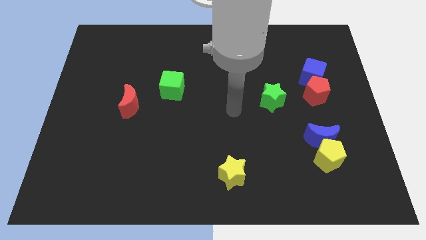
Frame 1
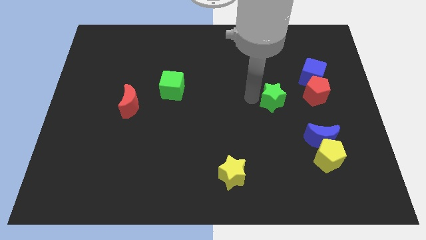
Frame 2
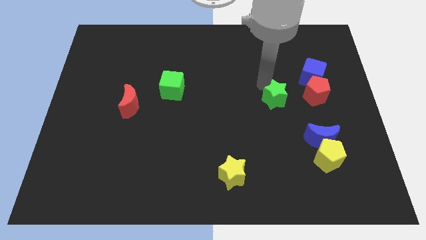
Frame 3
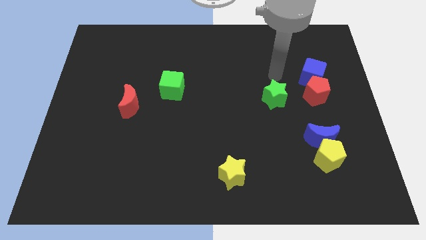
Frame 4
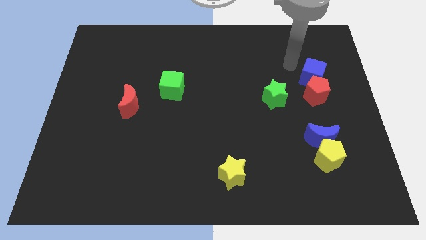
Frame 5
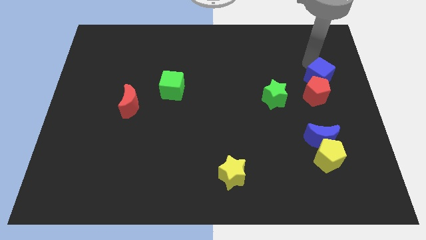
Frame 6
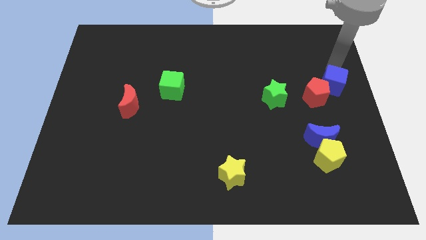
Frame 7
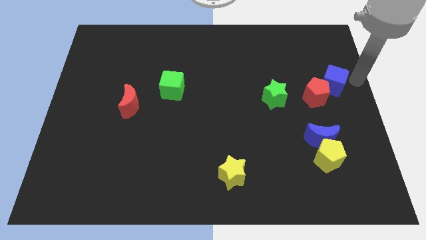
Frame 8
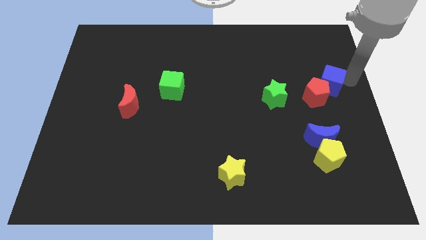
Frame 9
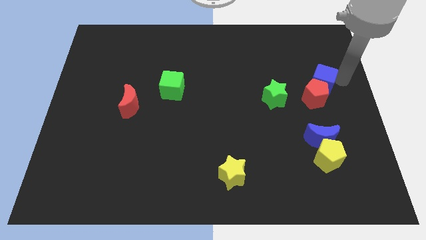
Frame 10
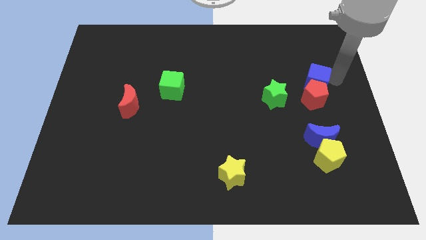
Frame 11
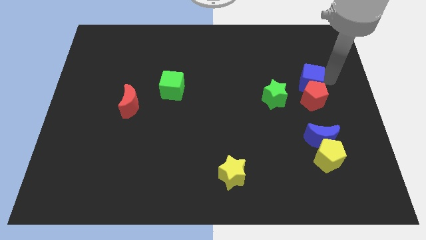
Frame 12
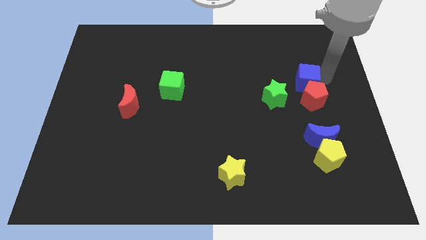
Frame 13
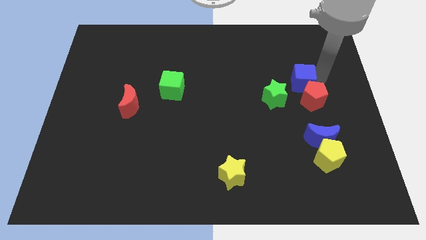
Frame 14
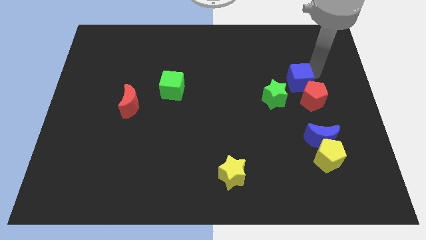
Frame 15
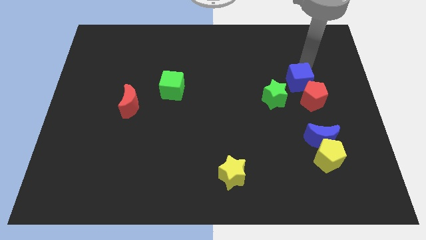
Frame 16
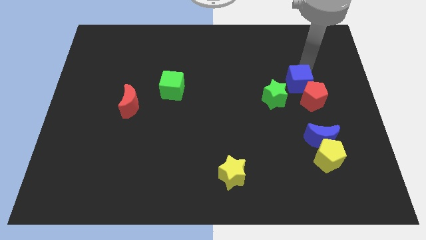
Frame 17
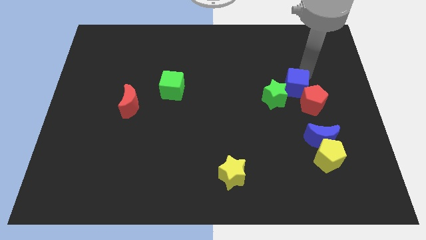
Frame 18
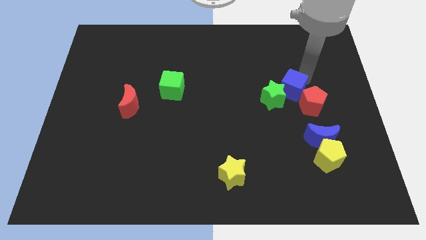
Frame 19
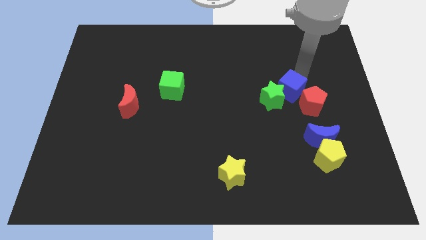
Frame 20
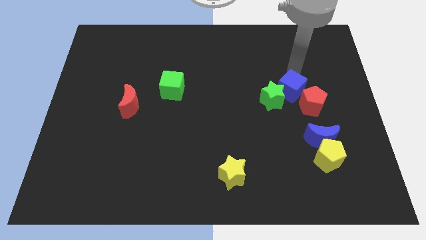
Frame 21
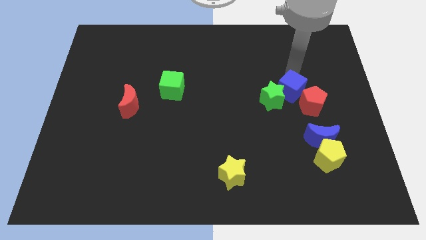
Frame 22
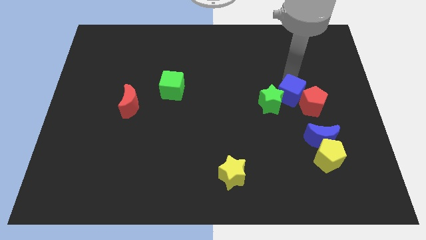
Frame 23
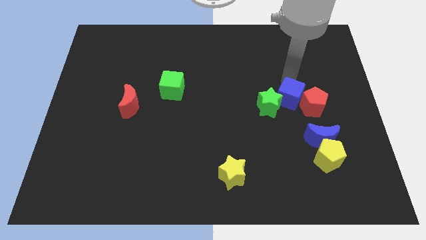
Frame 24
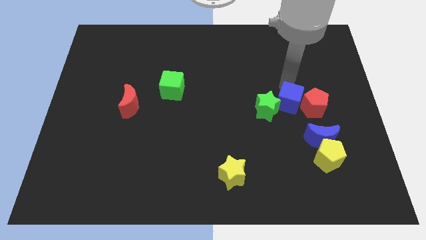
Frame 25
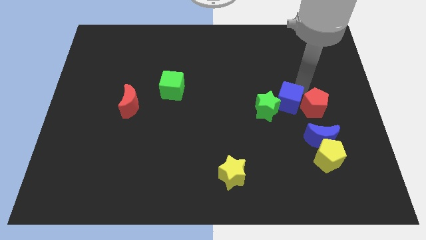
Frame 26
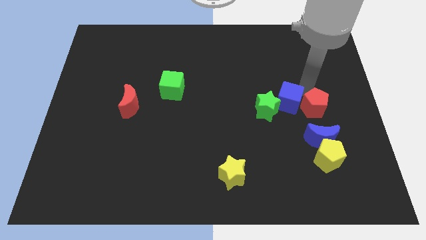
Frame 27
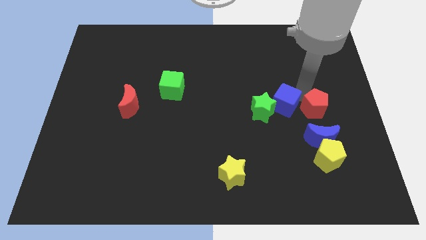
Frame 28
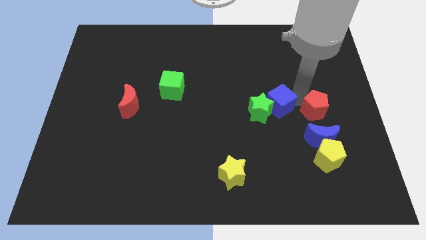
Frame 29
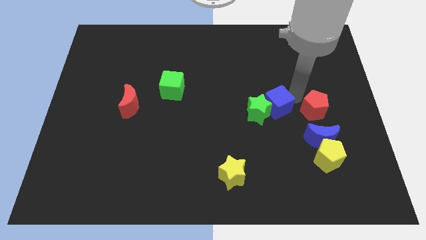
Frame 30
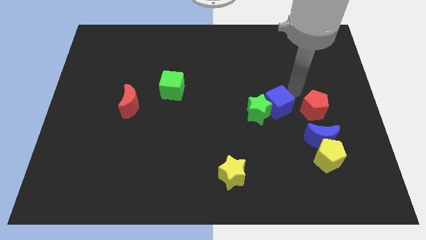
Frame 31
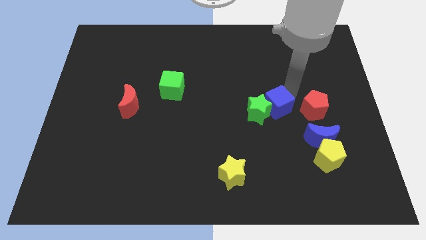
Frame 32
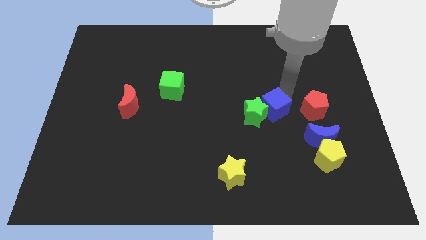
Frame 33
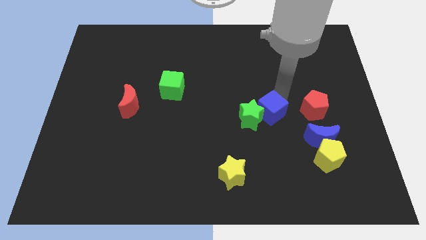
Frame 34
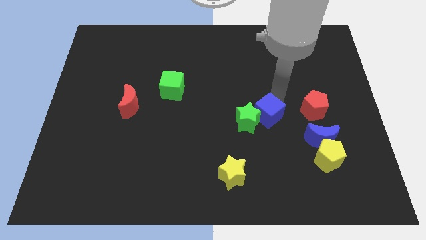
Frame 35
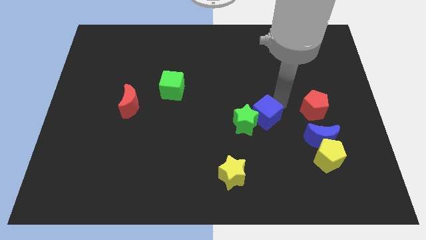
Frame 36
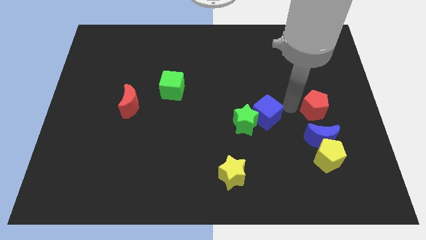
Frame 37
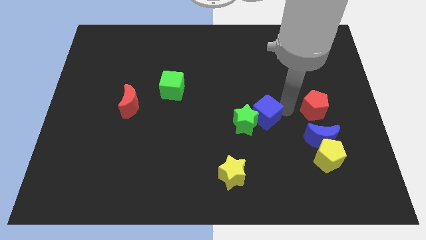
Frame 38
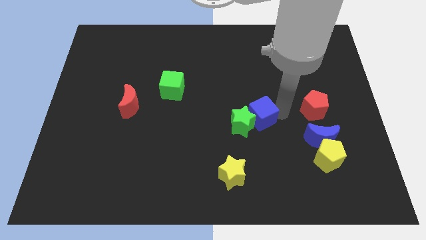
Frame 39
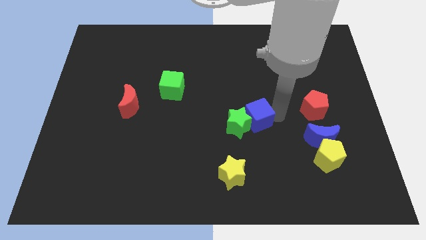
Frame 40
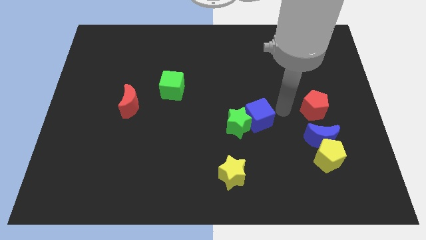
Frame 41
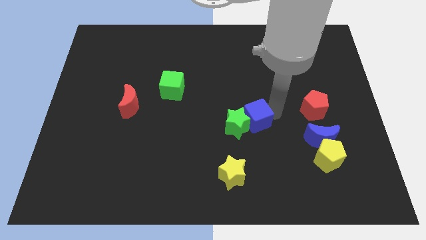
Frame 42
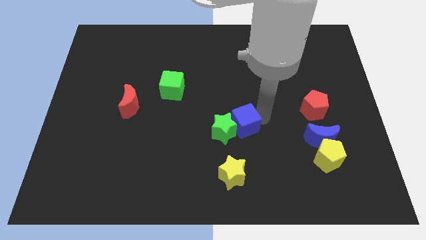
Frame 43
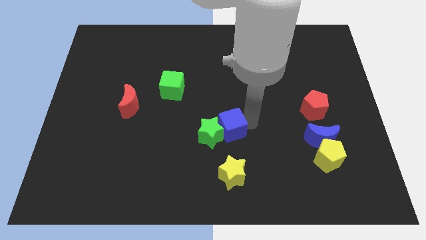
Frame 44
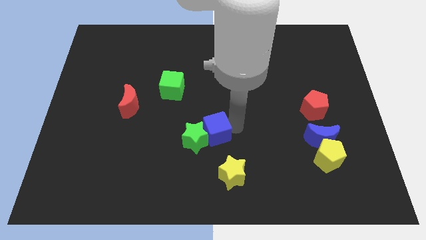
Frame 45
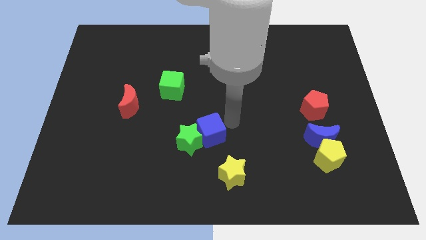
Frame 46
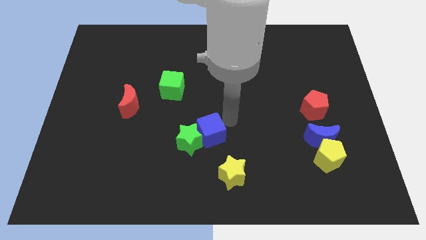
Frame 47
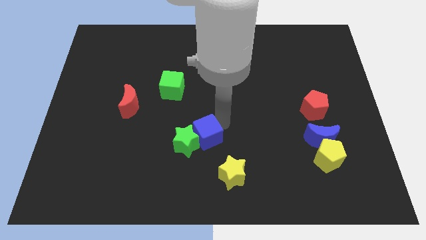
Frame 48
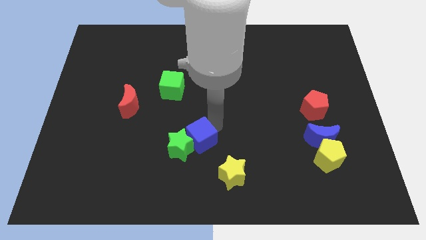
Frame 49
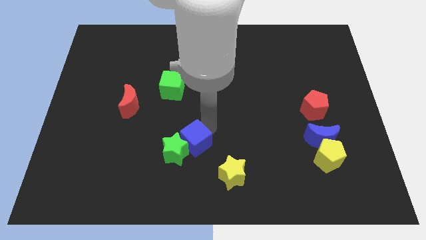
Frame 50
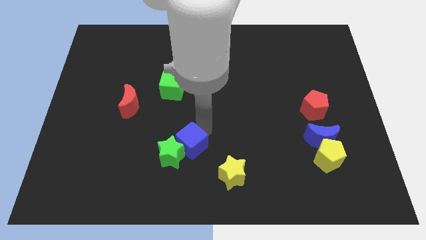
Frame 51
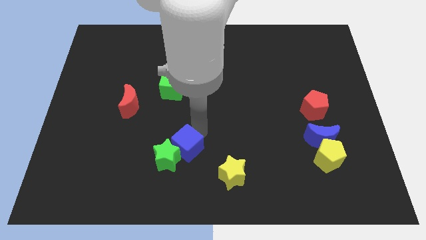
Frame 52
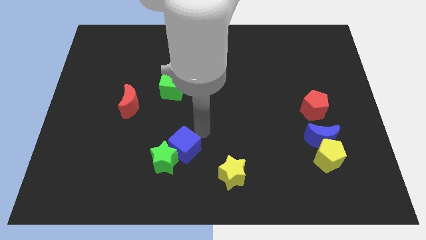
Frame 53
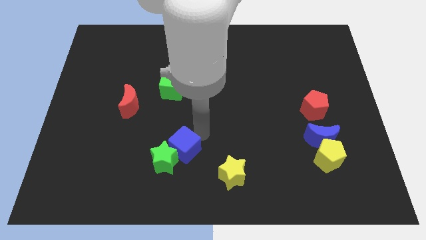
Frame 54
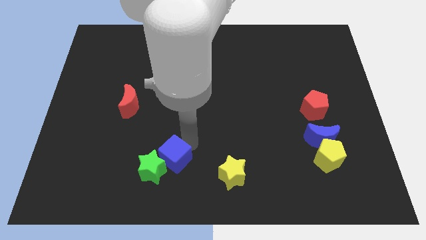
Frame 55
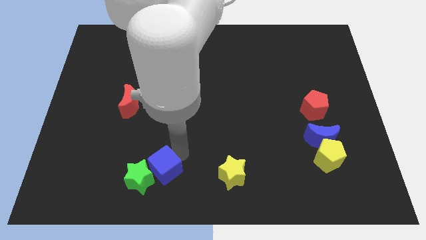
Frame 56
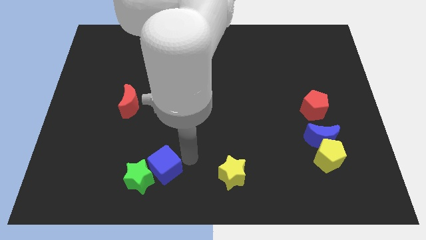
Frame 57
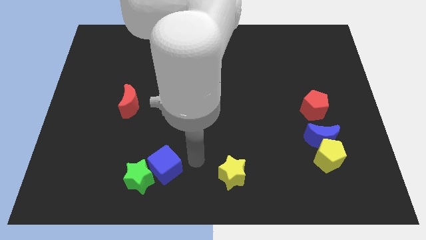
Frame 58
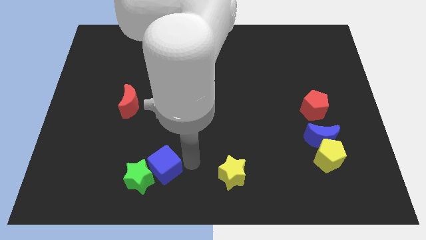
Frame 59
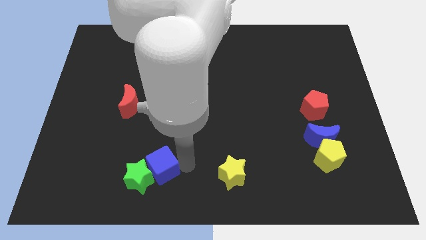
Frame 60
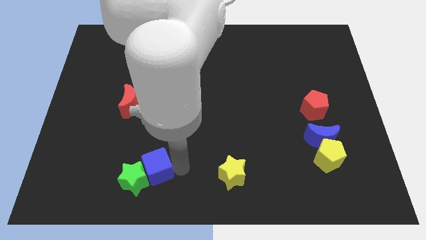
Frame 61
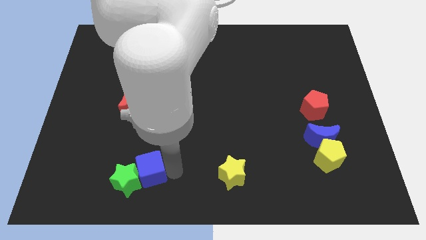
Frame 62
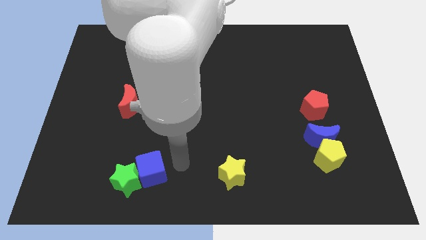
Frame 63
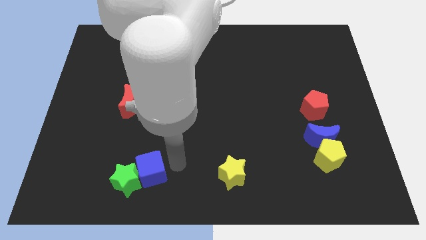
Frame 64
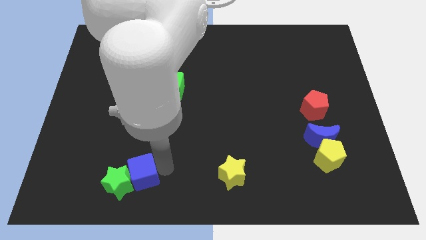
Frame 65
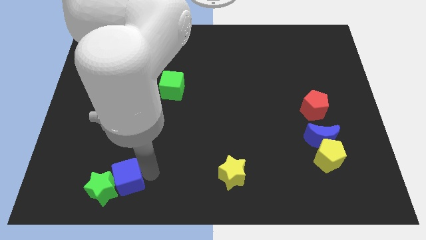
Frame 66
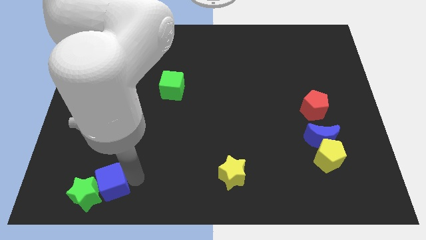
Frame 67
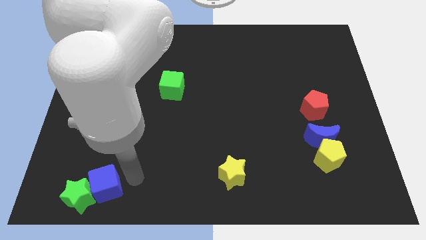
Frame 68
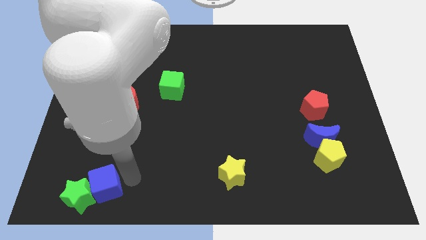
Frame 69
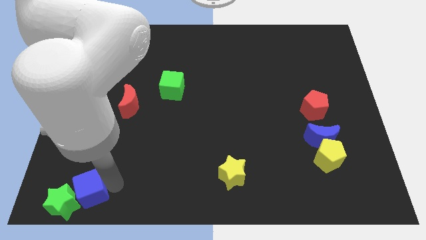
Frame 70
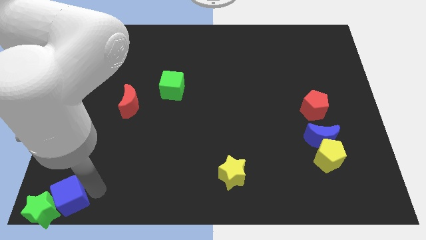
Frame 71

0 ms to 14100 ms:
slide the blue cube to the lower left corner
